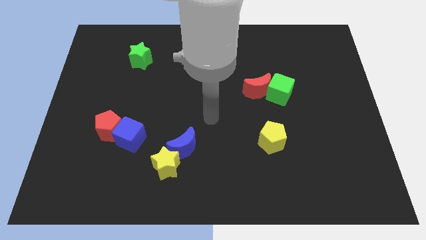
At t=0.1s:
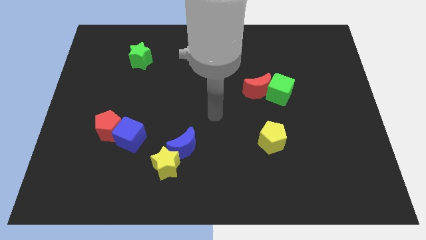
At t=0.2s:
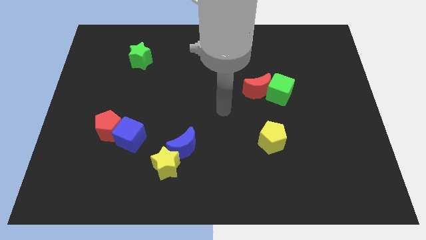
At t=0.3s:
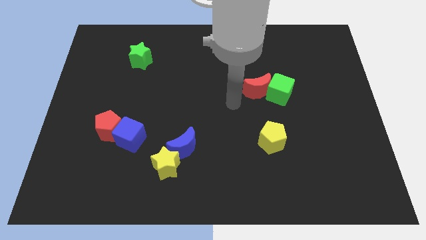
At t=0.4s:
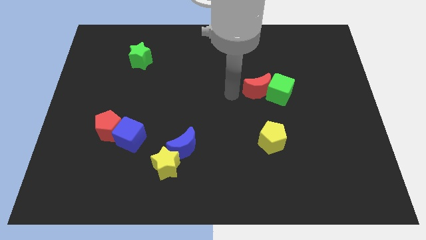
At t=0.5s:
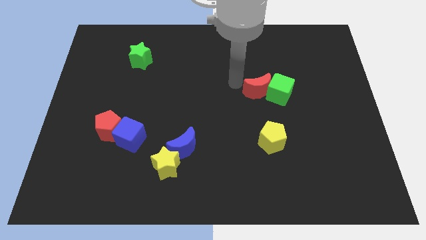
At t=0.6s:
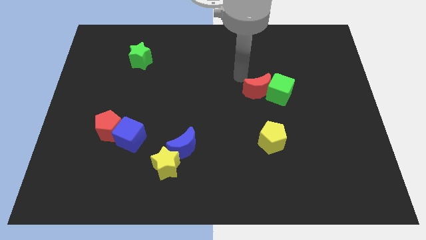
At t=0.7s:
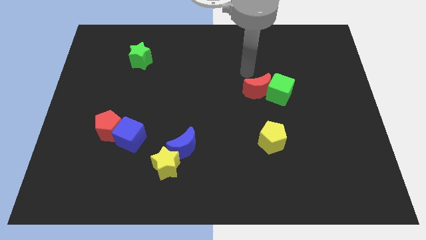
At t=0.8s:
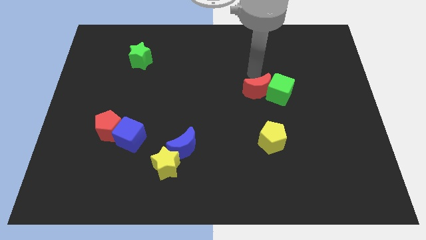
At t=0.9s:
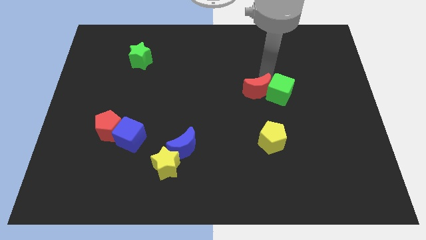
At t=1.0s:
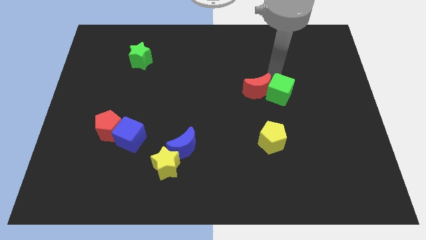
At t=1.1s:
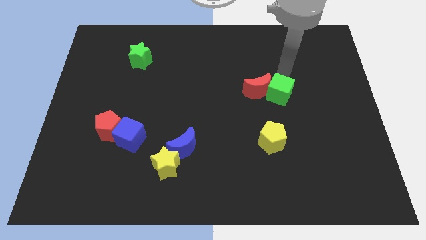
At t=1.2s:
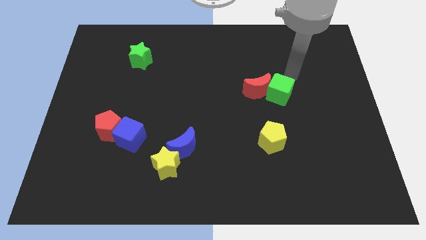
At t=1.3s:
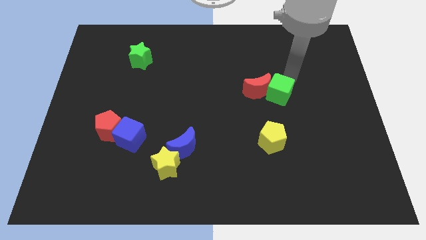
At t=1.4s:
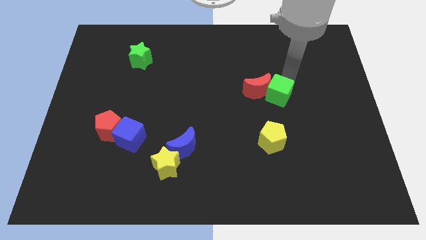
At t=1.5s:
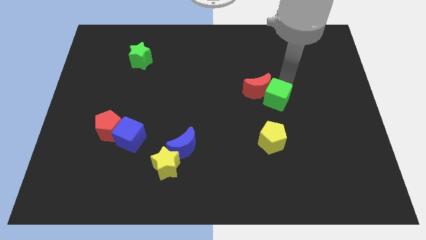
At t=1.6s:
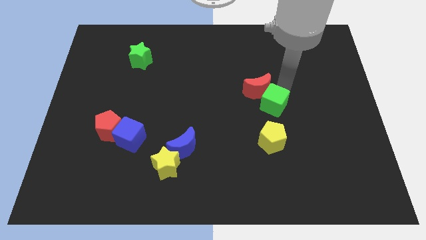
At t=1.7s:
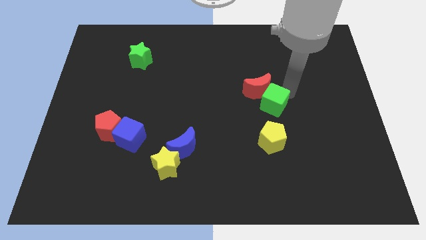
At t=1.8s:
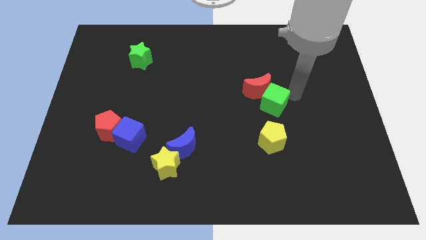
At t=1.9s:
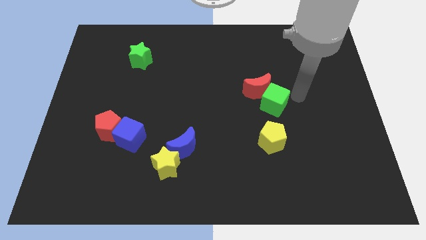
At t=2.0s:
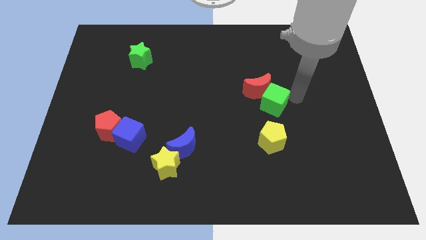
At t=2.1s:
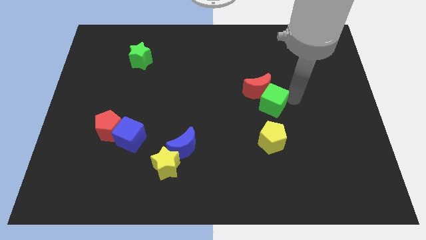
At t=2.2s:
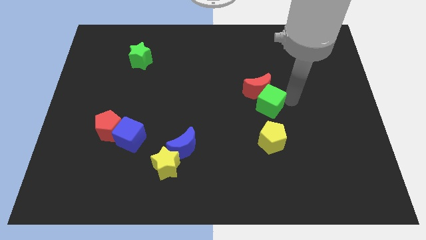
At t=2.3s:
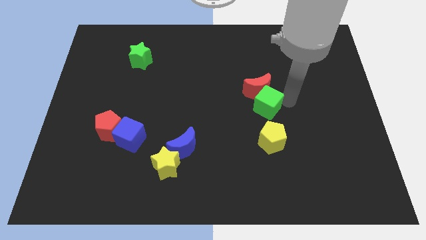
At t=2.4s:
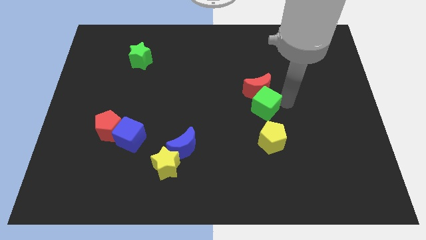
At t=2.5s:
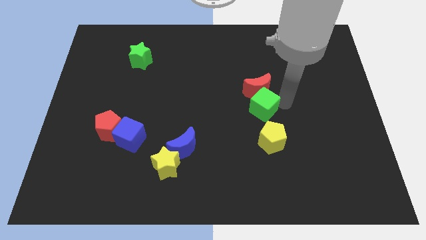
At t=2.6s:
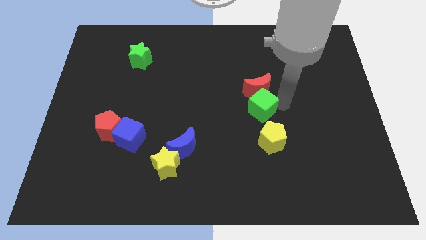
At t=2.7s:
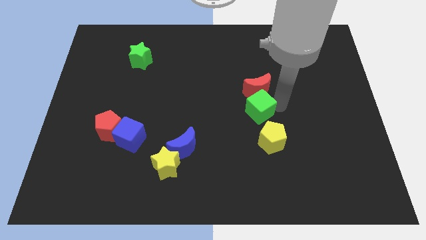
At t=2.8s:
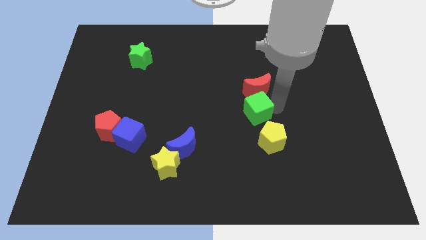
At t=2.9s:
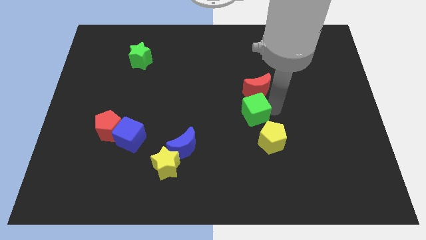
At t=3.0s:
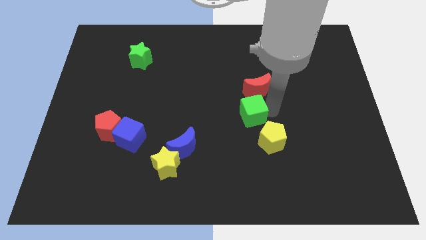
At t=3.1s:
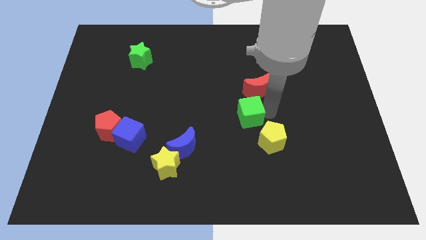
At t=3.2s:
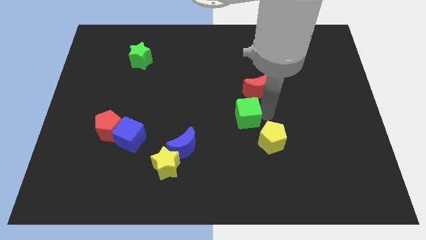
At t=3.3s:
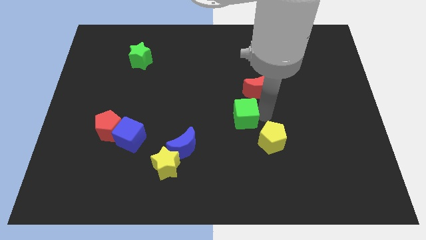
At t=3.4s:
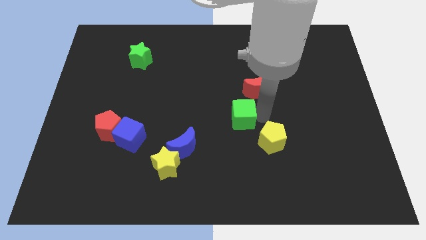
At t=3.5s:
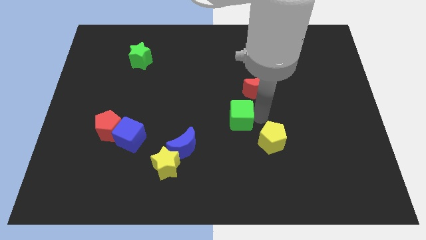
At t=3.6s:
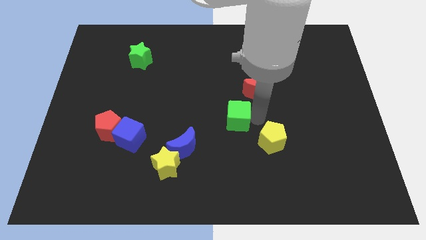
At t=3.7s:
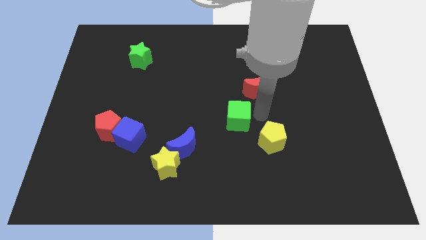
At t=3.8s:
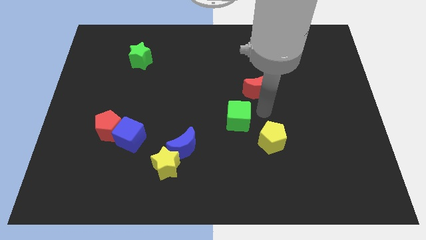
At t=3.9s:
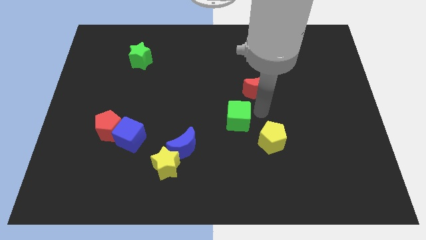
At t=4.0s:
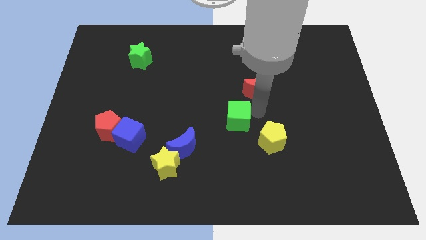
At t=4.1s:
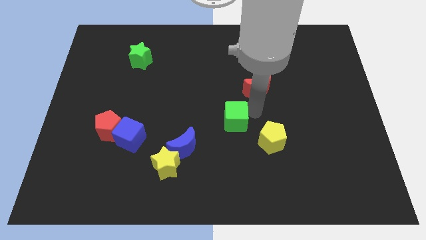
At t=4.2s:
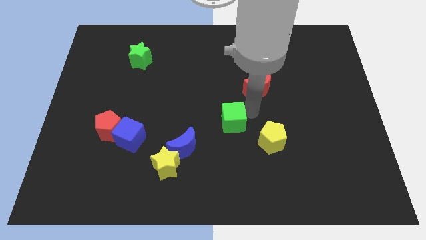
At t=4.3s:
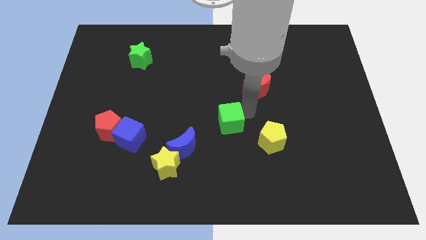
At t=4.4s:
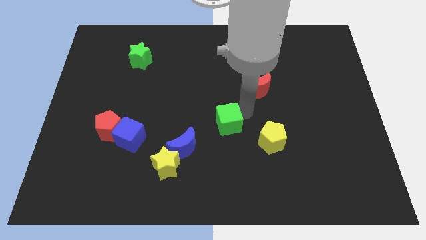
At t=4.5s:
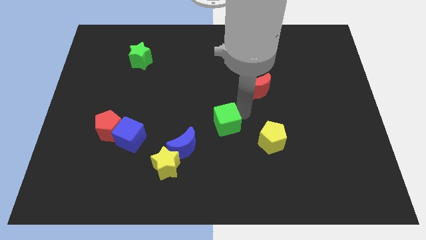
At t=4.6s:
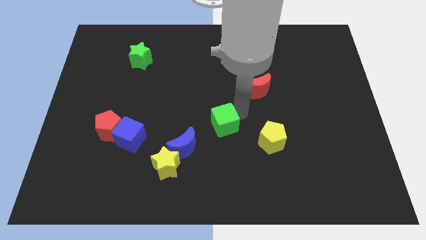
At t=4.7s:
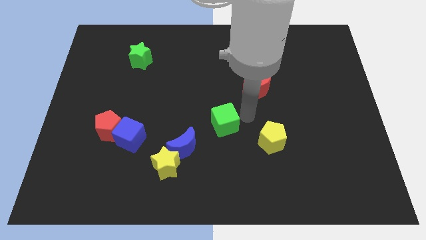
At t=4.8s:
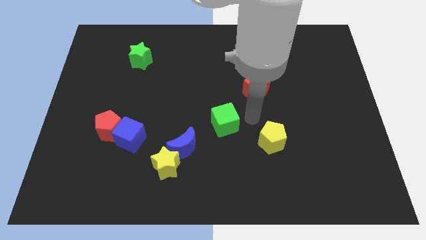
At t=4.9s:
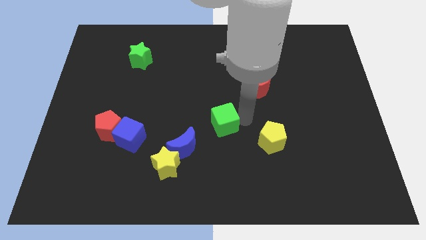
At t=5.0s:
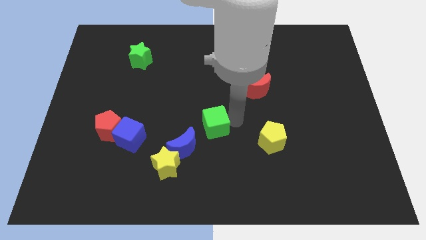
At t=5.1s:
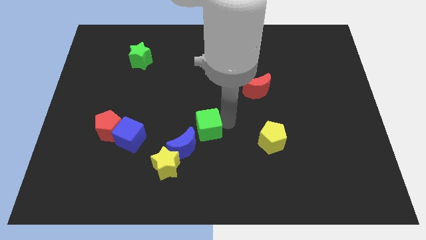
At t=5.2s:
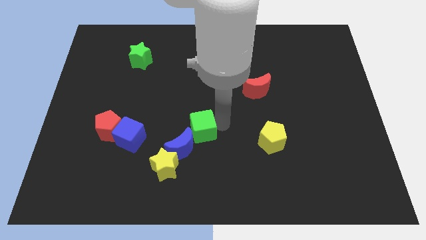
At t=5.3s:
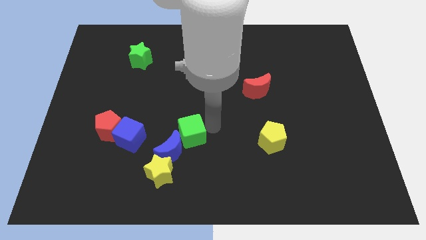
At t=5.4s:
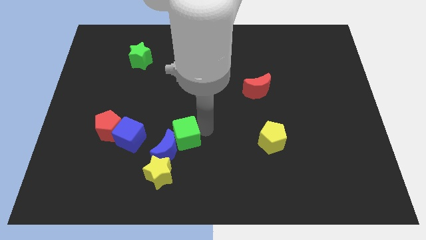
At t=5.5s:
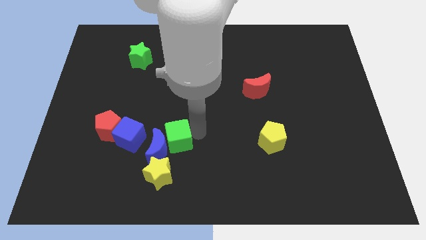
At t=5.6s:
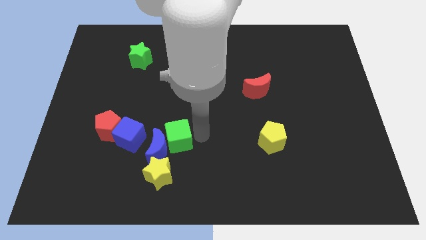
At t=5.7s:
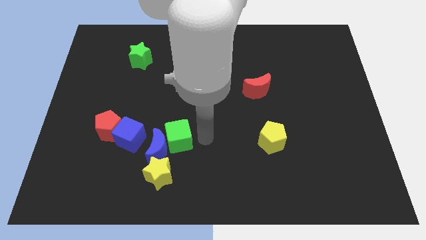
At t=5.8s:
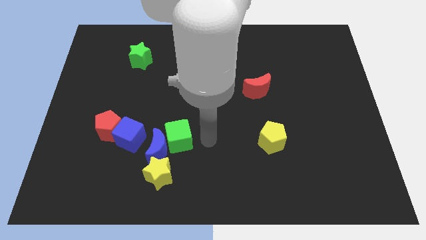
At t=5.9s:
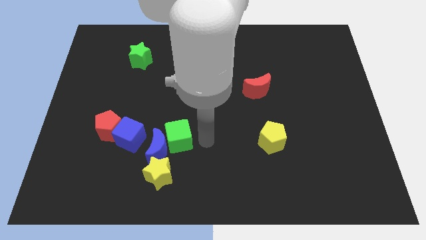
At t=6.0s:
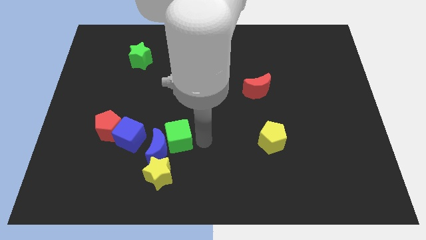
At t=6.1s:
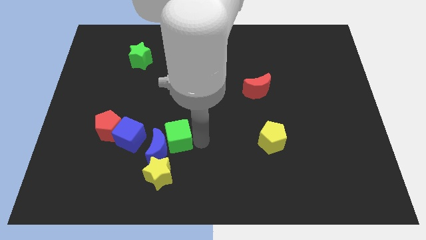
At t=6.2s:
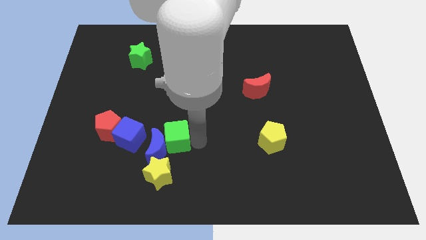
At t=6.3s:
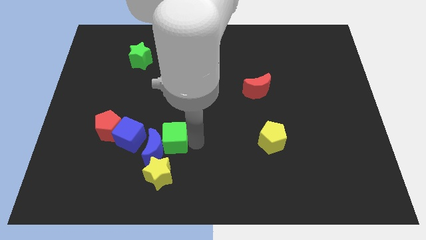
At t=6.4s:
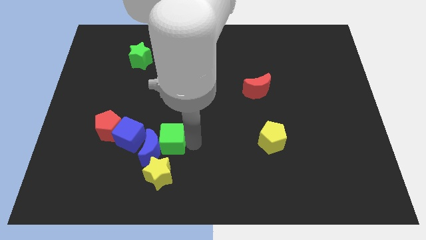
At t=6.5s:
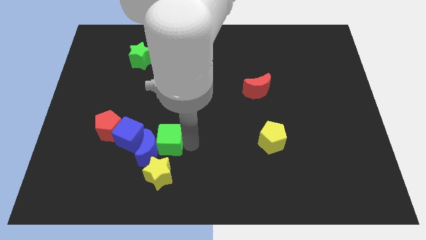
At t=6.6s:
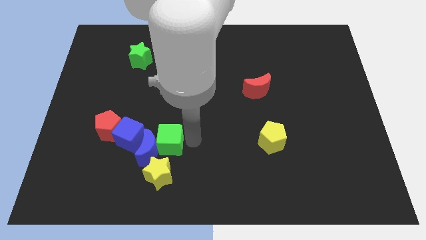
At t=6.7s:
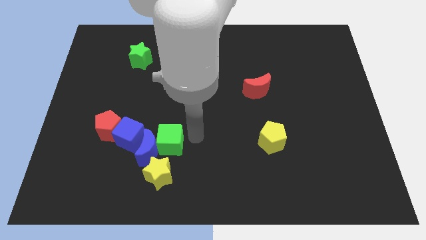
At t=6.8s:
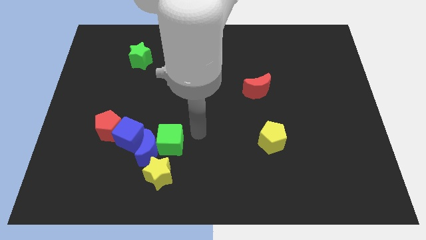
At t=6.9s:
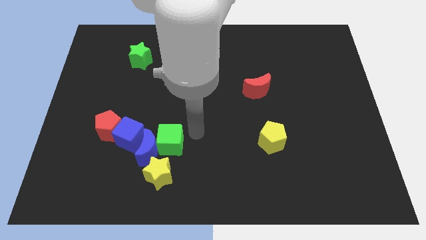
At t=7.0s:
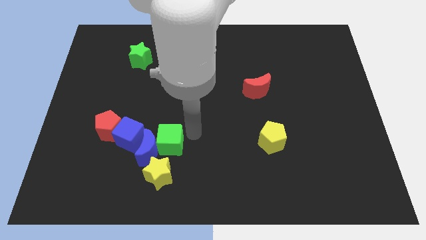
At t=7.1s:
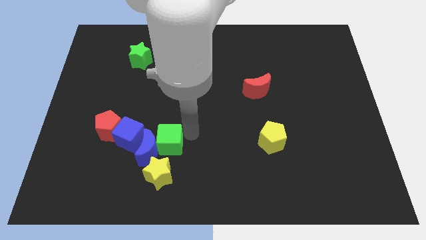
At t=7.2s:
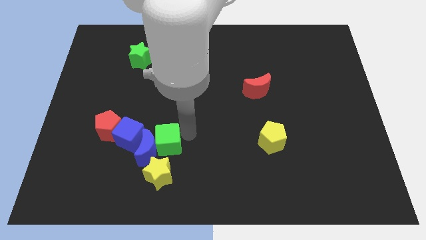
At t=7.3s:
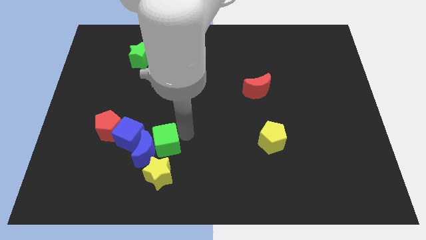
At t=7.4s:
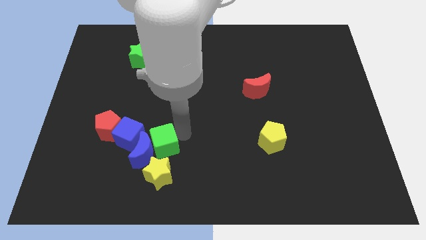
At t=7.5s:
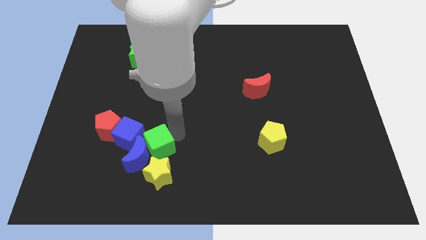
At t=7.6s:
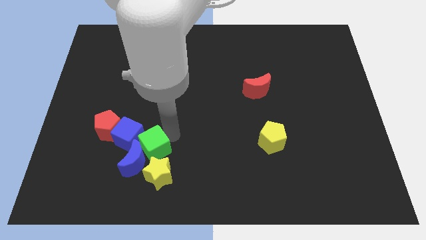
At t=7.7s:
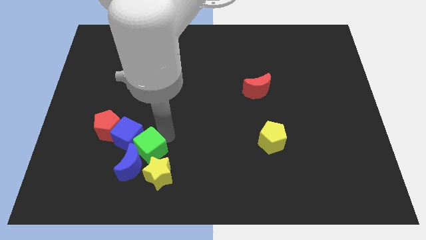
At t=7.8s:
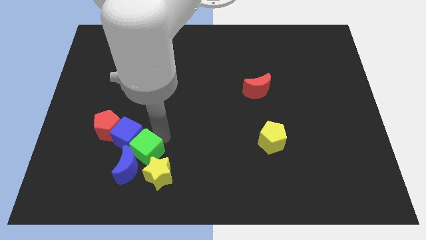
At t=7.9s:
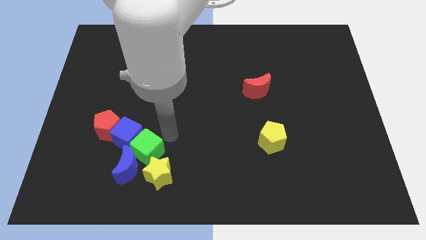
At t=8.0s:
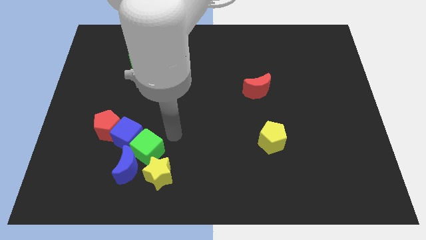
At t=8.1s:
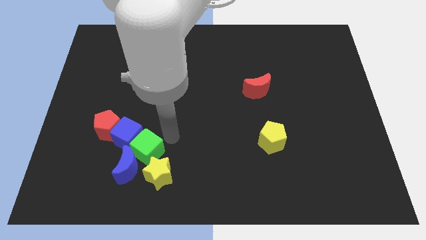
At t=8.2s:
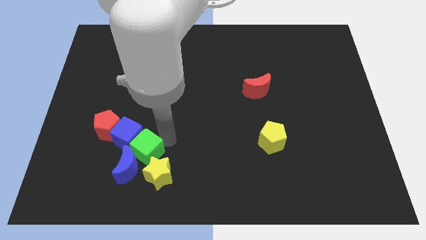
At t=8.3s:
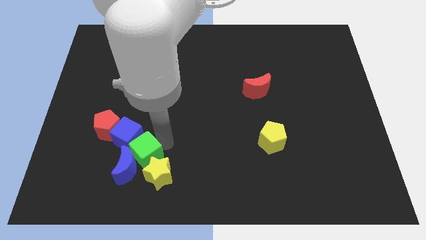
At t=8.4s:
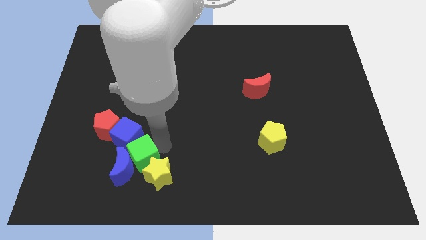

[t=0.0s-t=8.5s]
move the green cube left of the yellow star
